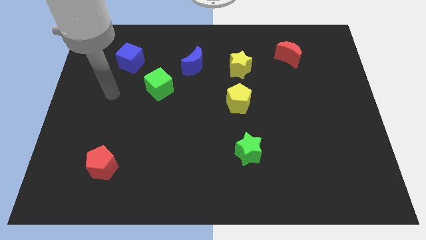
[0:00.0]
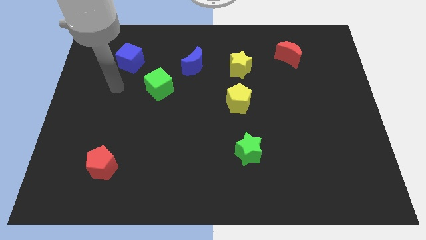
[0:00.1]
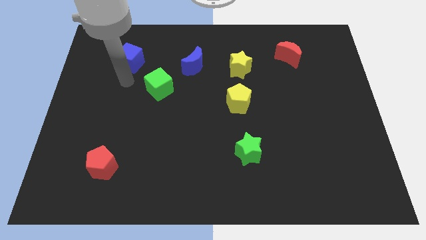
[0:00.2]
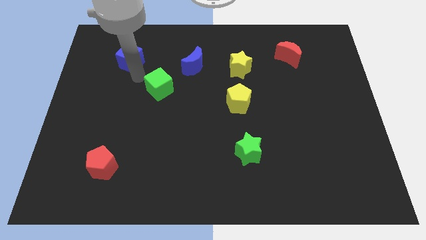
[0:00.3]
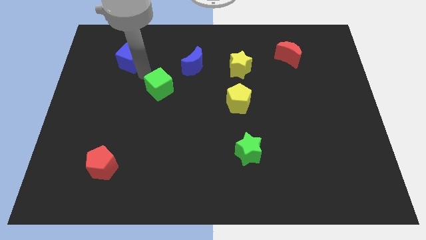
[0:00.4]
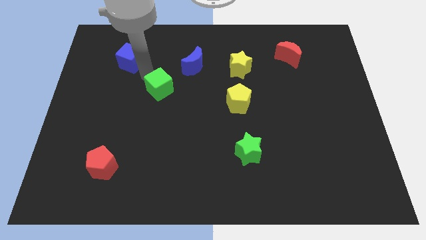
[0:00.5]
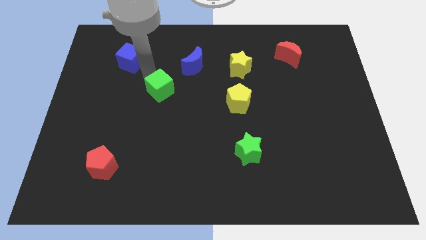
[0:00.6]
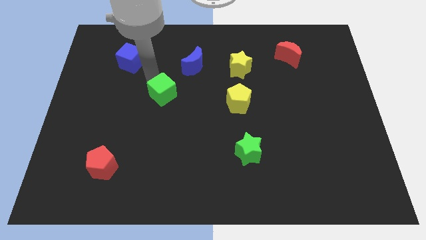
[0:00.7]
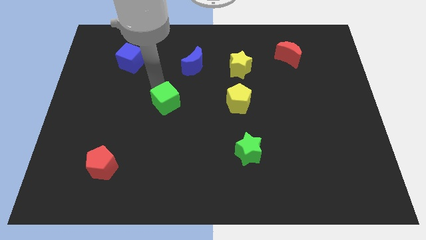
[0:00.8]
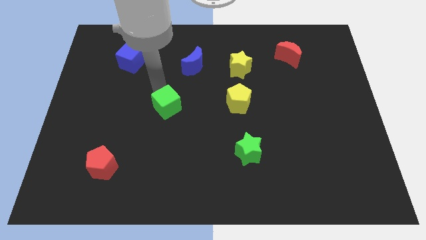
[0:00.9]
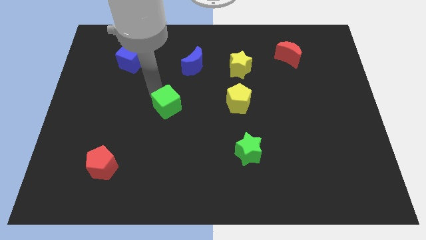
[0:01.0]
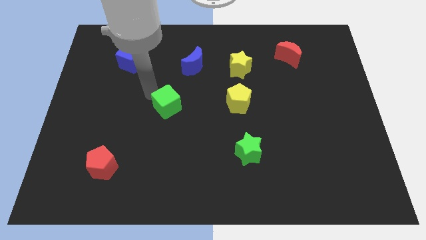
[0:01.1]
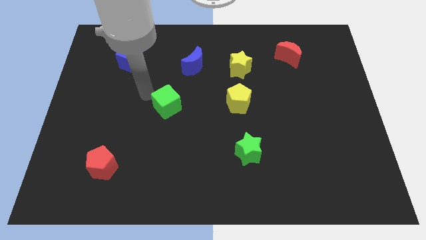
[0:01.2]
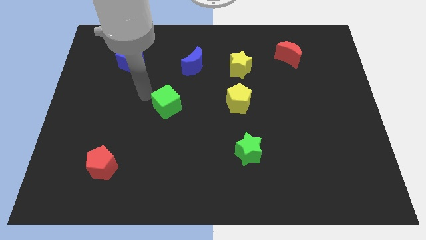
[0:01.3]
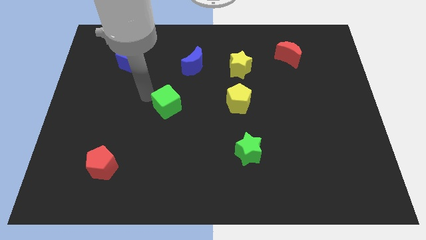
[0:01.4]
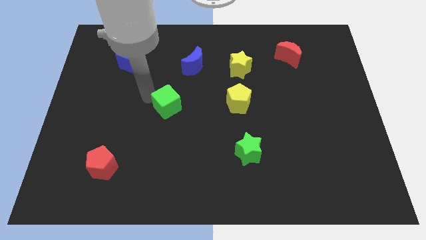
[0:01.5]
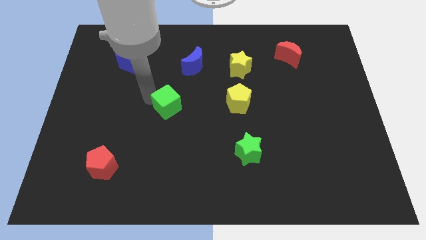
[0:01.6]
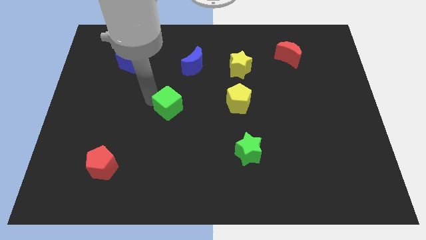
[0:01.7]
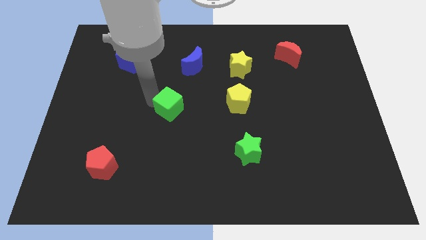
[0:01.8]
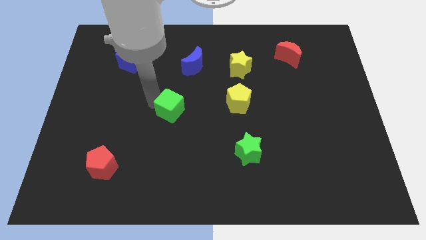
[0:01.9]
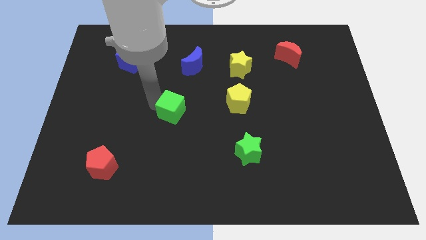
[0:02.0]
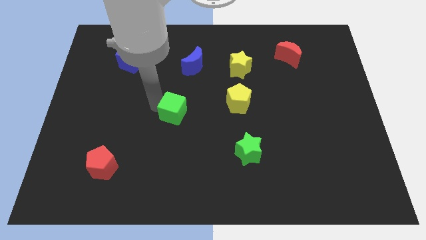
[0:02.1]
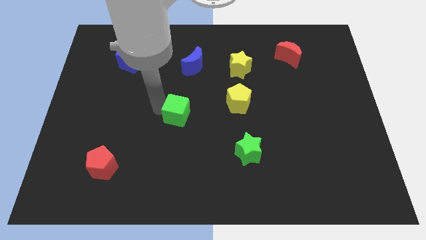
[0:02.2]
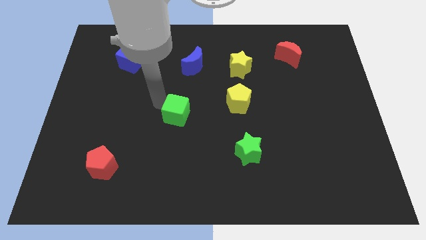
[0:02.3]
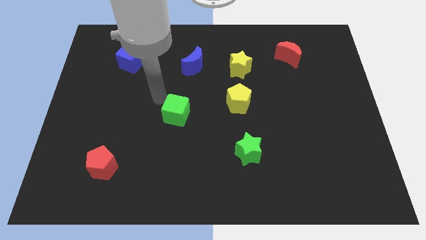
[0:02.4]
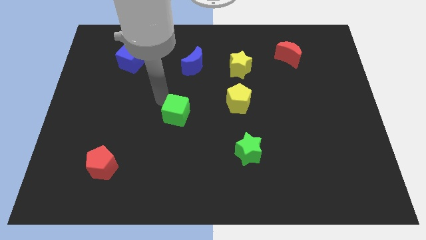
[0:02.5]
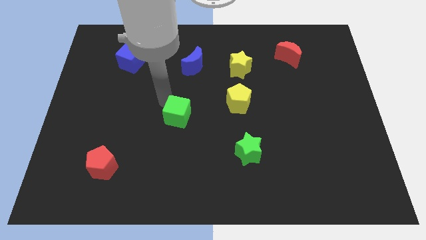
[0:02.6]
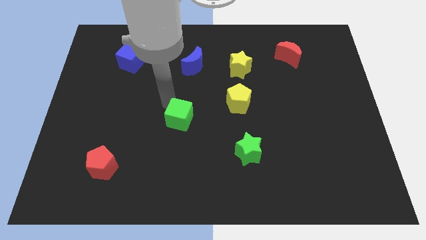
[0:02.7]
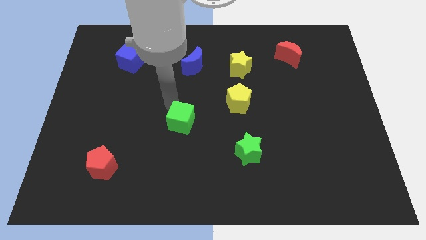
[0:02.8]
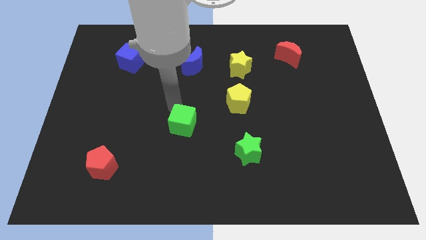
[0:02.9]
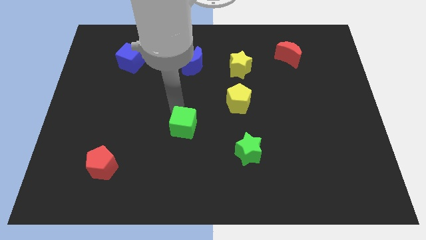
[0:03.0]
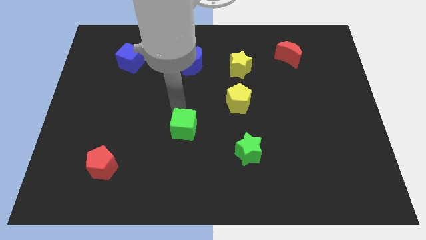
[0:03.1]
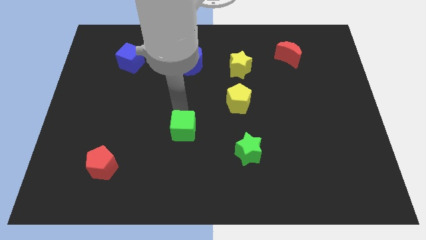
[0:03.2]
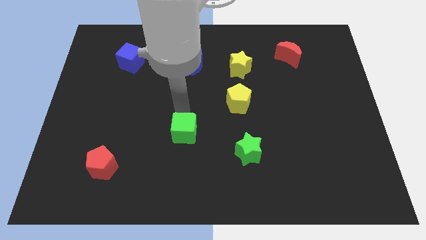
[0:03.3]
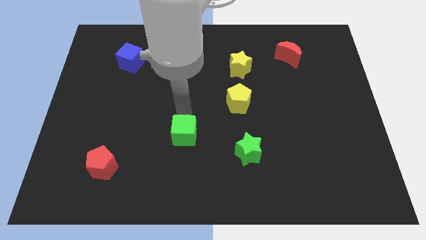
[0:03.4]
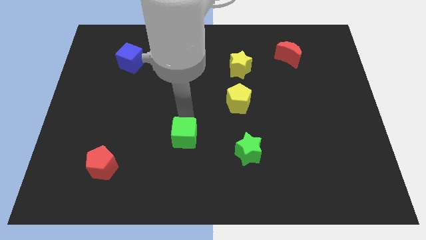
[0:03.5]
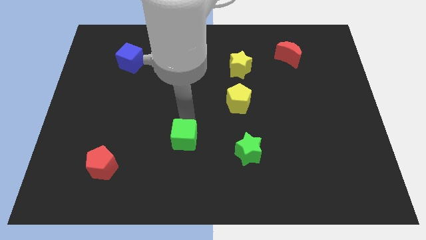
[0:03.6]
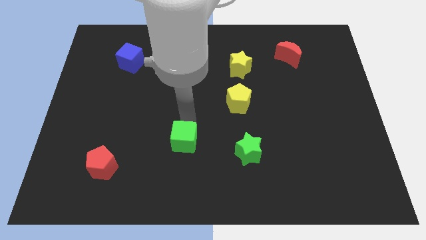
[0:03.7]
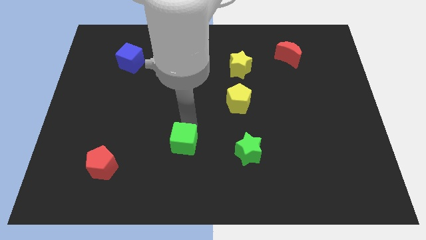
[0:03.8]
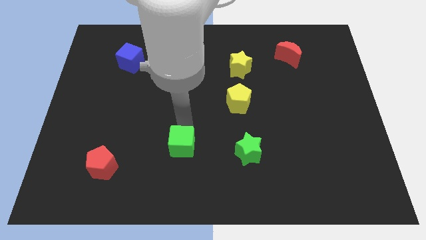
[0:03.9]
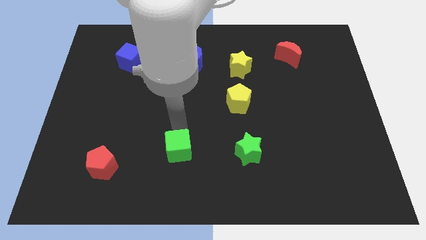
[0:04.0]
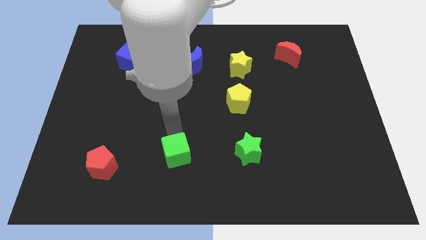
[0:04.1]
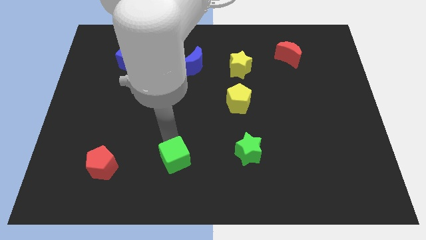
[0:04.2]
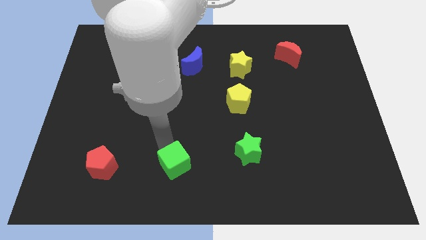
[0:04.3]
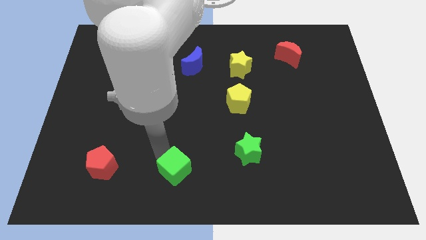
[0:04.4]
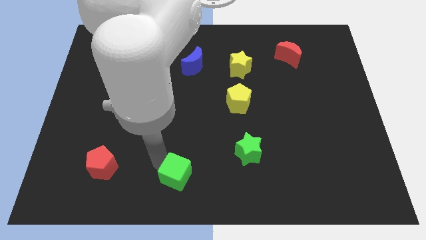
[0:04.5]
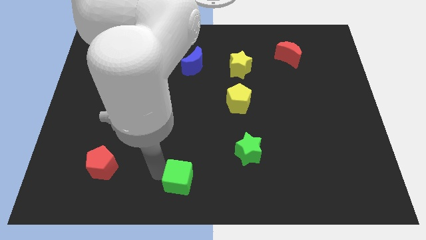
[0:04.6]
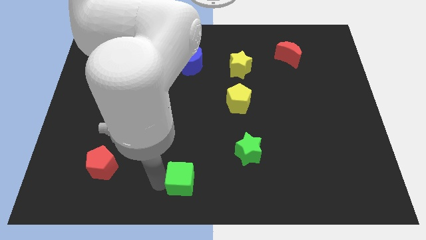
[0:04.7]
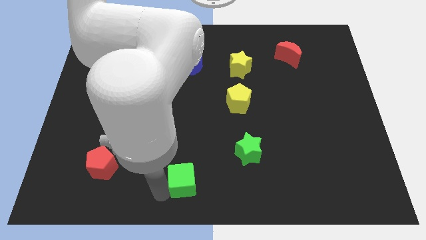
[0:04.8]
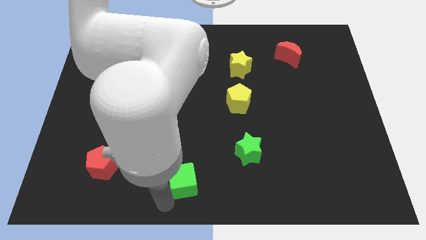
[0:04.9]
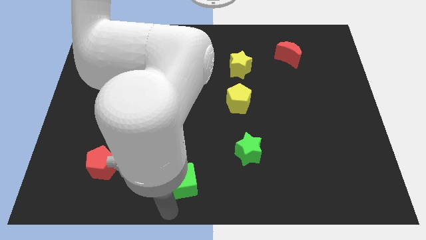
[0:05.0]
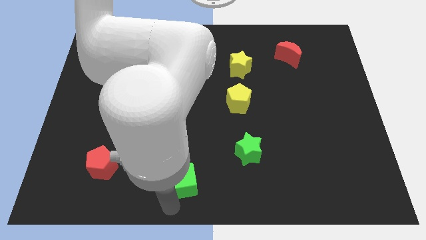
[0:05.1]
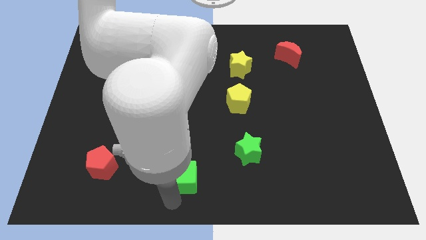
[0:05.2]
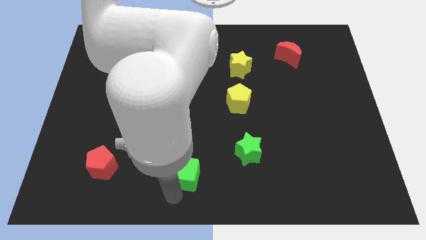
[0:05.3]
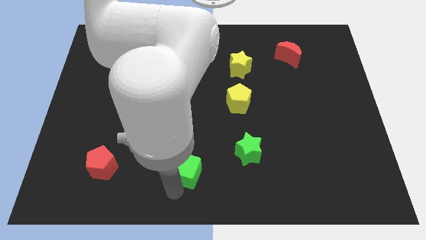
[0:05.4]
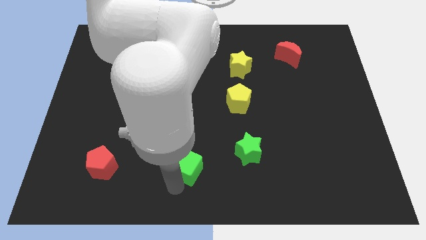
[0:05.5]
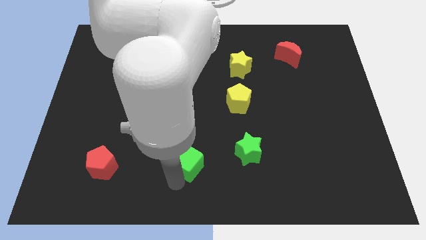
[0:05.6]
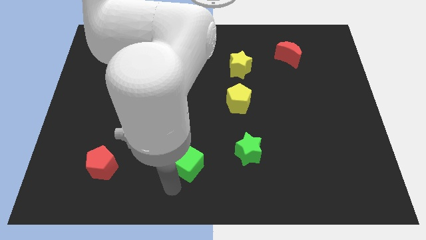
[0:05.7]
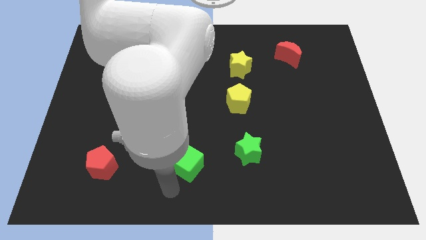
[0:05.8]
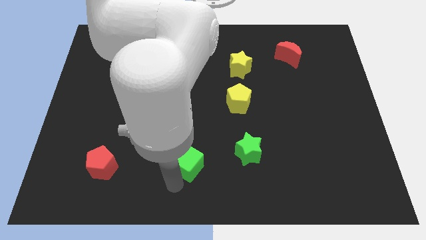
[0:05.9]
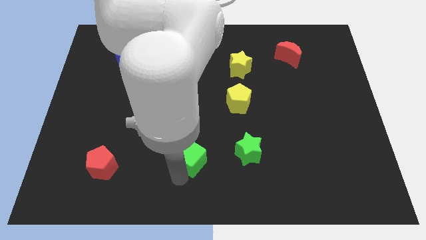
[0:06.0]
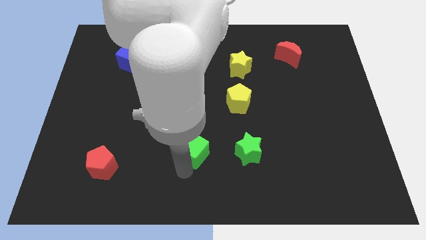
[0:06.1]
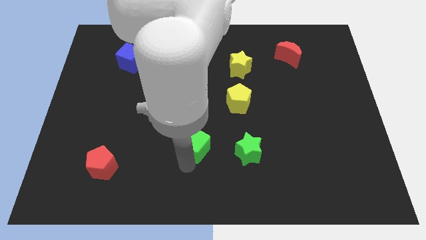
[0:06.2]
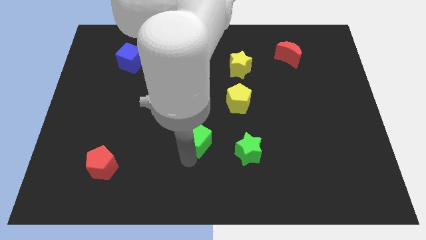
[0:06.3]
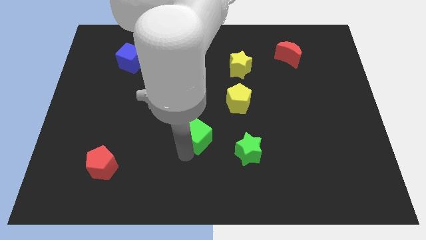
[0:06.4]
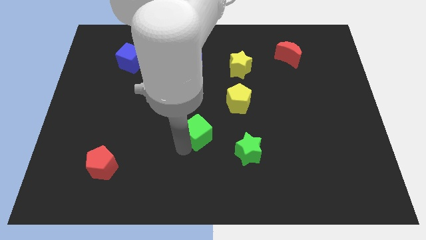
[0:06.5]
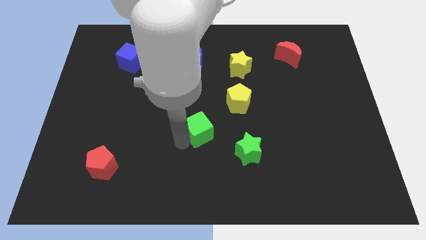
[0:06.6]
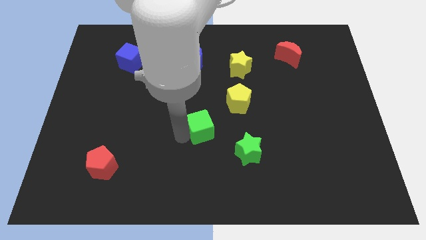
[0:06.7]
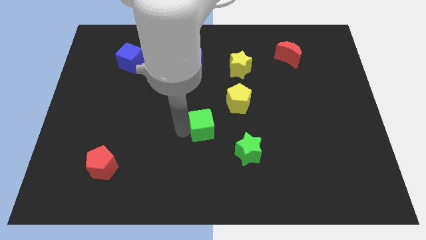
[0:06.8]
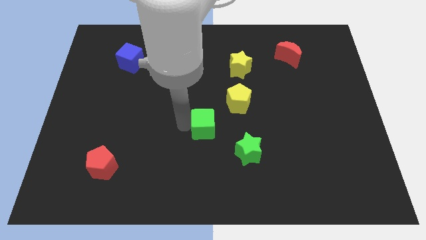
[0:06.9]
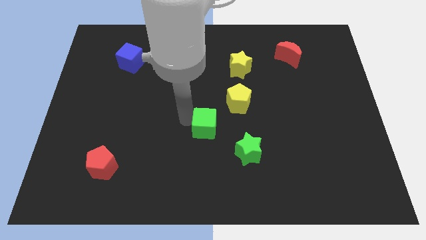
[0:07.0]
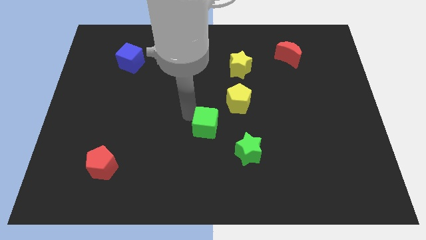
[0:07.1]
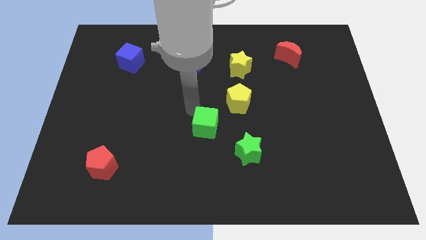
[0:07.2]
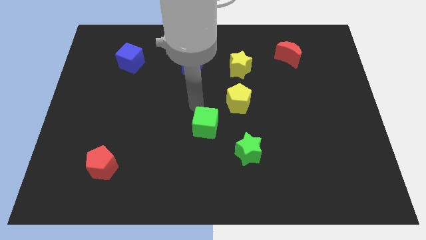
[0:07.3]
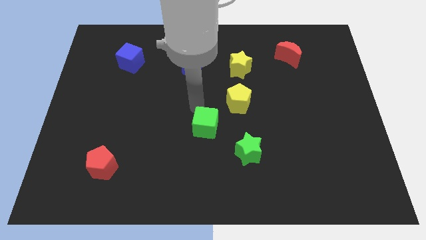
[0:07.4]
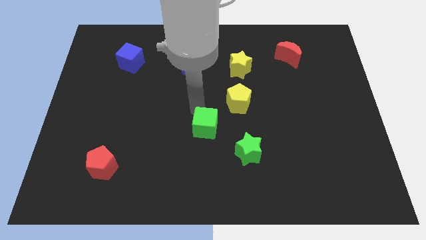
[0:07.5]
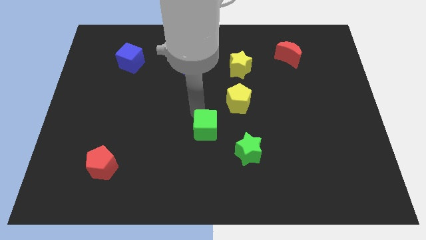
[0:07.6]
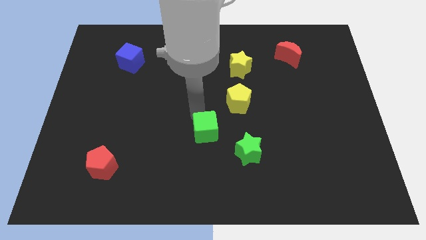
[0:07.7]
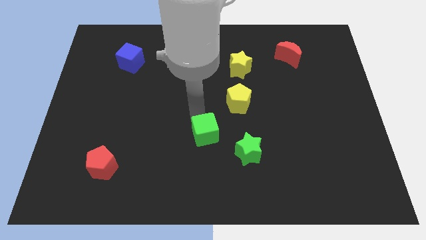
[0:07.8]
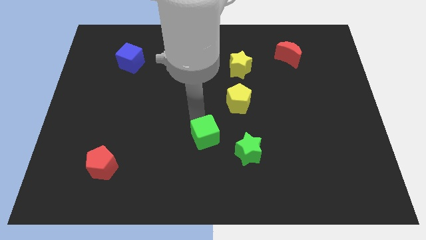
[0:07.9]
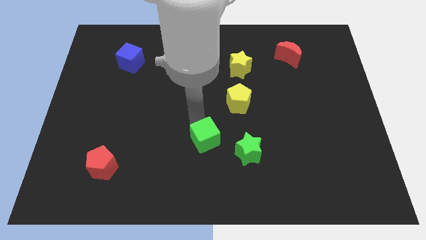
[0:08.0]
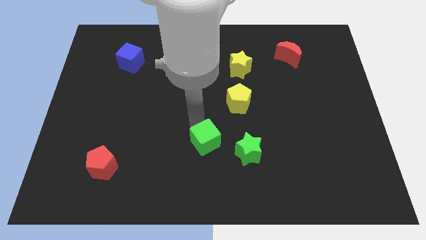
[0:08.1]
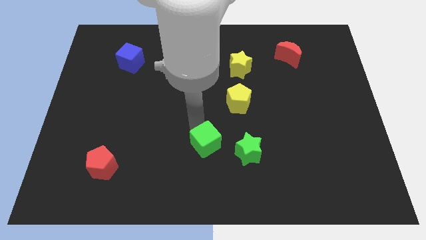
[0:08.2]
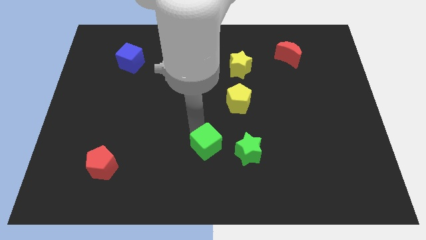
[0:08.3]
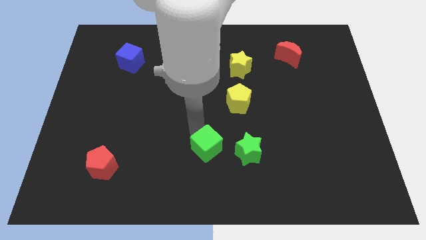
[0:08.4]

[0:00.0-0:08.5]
move the green cube downwards and then to the right
